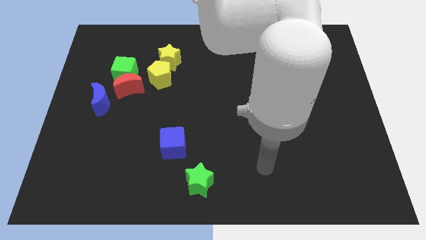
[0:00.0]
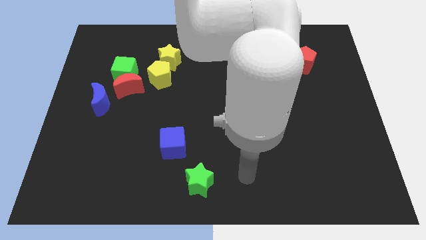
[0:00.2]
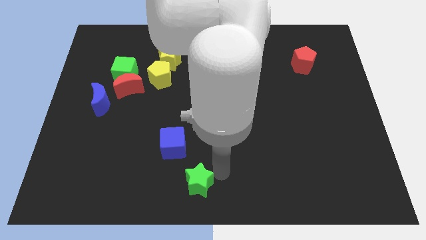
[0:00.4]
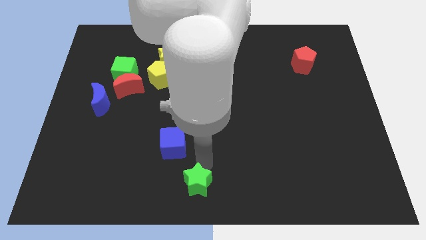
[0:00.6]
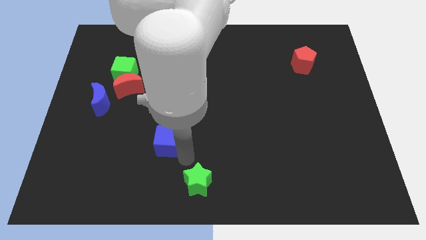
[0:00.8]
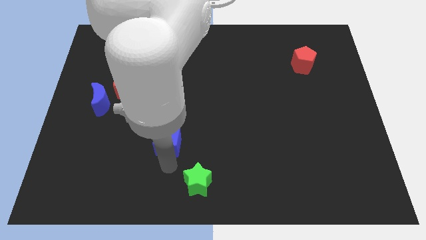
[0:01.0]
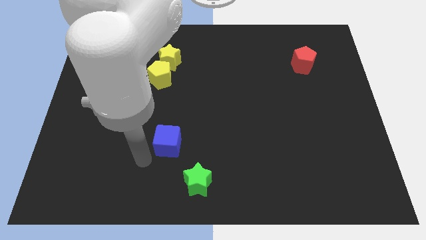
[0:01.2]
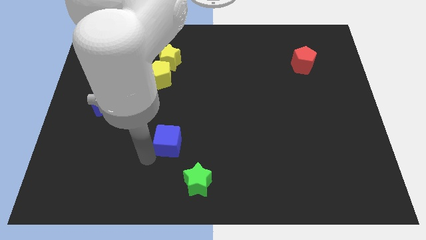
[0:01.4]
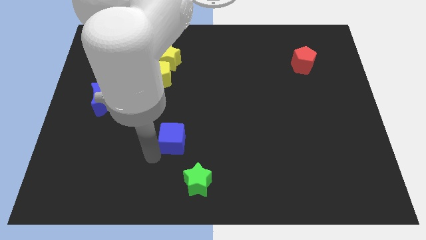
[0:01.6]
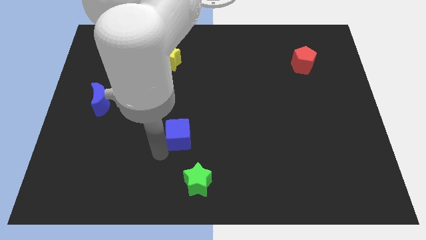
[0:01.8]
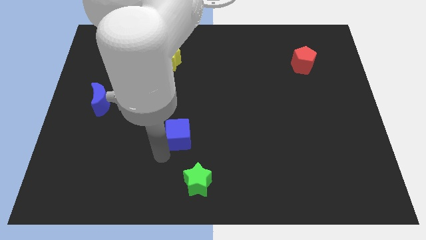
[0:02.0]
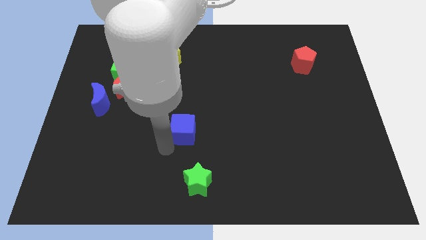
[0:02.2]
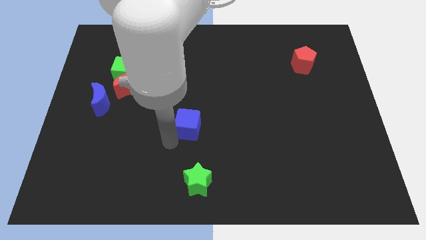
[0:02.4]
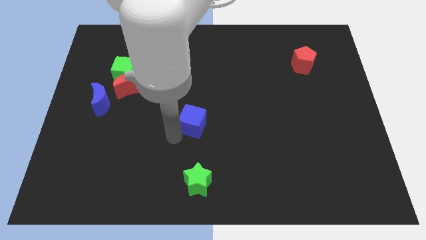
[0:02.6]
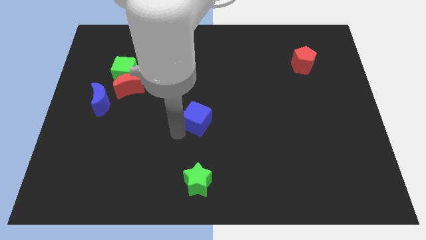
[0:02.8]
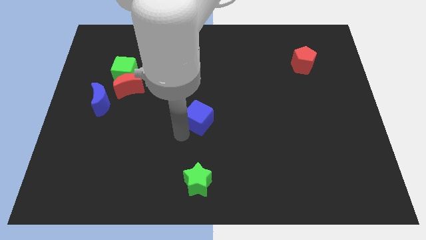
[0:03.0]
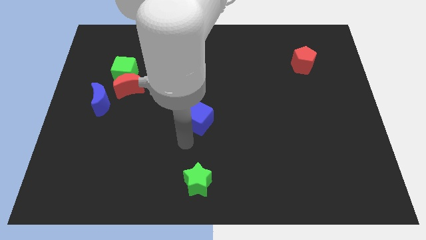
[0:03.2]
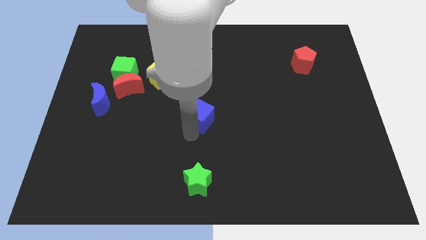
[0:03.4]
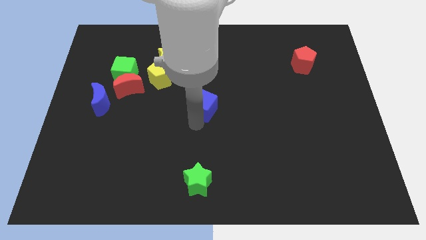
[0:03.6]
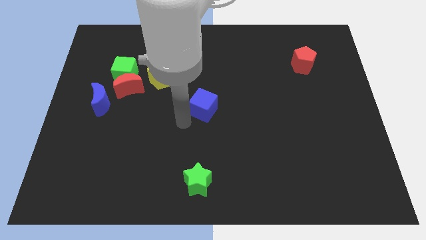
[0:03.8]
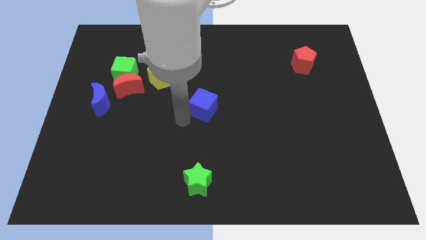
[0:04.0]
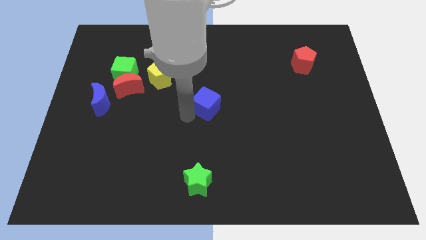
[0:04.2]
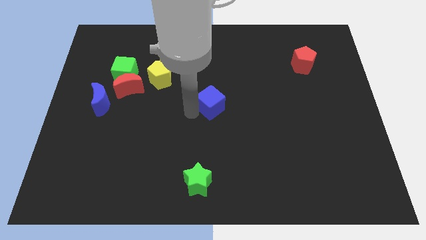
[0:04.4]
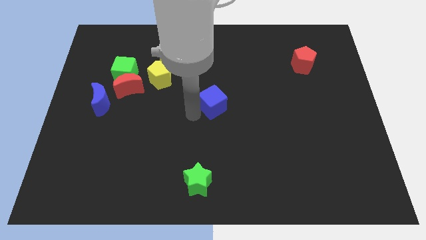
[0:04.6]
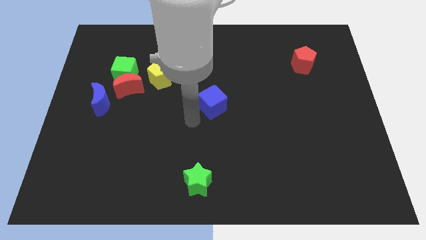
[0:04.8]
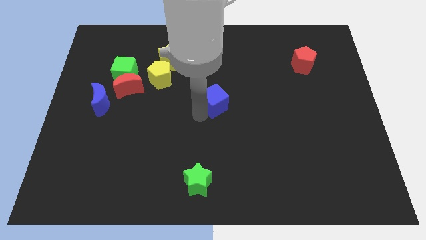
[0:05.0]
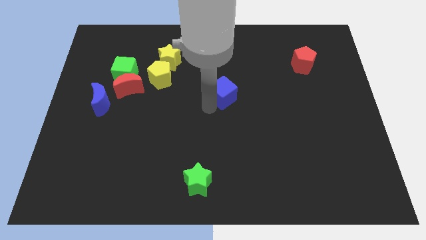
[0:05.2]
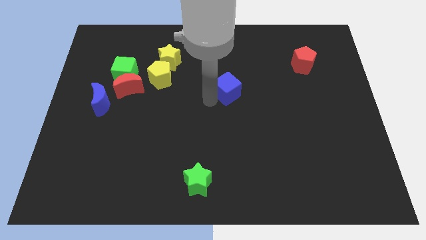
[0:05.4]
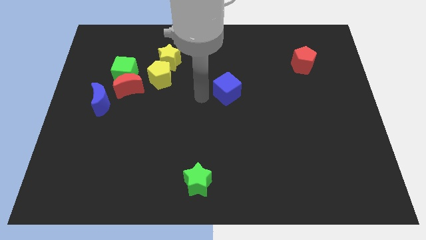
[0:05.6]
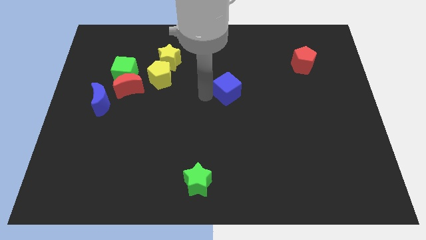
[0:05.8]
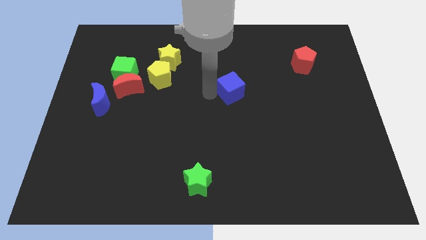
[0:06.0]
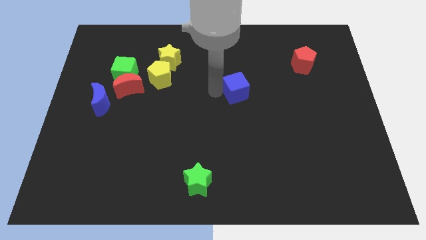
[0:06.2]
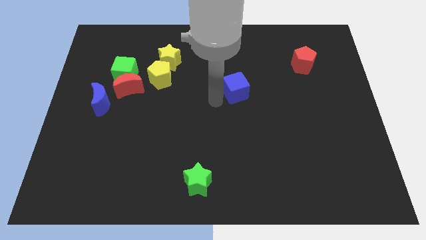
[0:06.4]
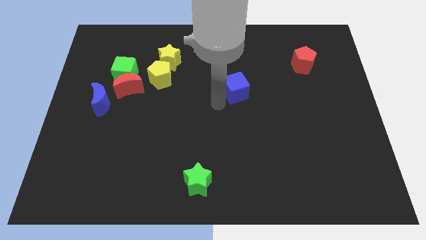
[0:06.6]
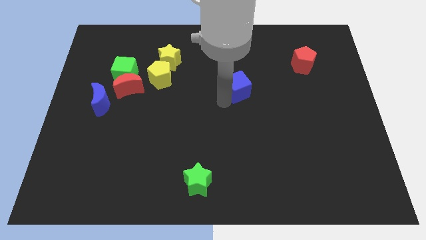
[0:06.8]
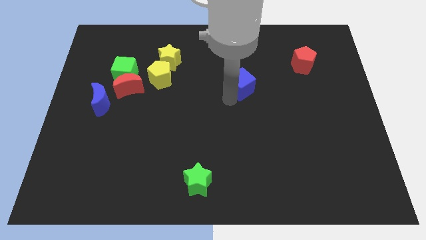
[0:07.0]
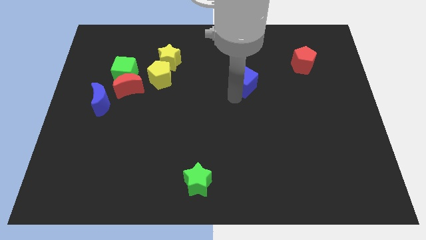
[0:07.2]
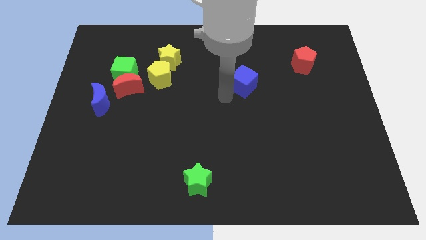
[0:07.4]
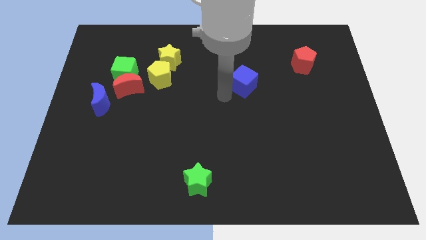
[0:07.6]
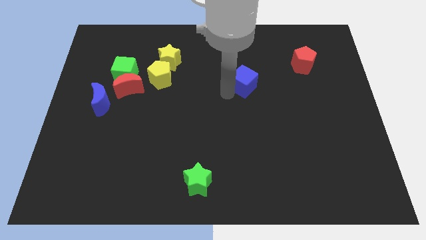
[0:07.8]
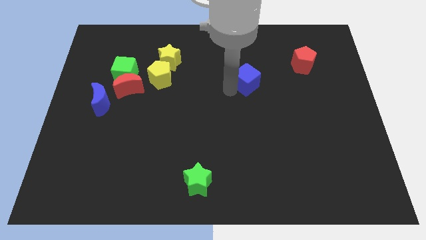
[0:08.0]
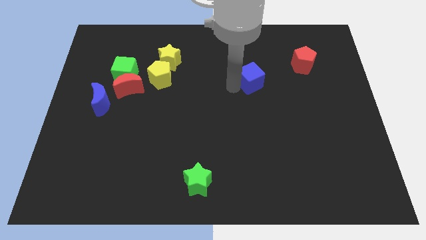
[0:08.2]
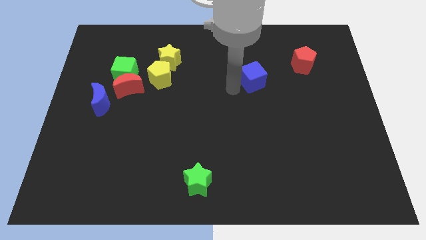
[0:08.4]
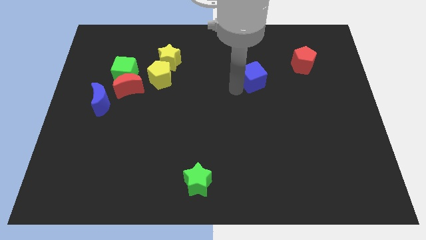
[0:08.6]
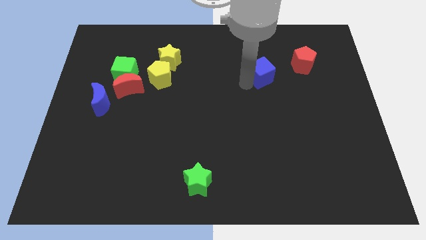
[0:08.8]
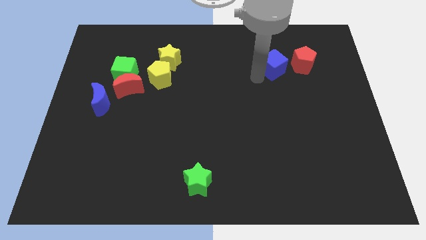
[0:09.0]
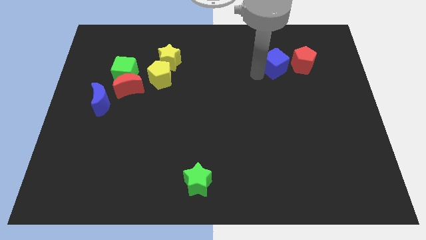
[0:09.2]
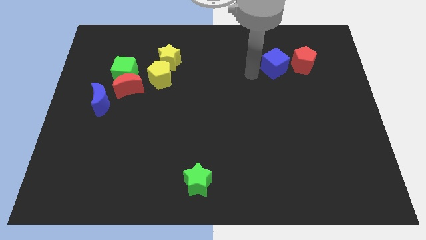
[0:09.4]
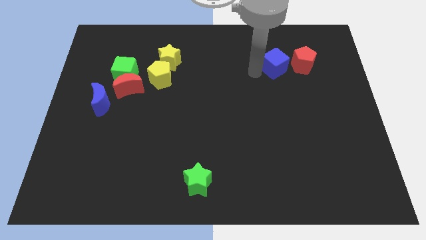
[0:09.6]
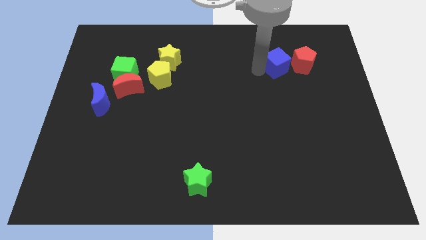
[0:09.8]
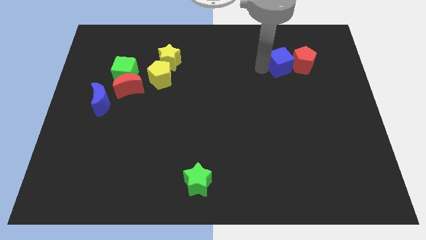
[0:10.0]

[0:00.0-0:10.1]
push the blue cube towards the red pentagon

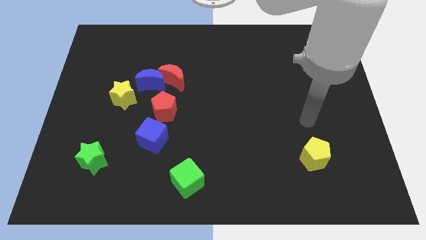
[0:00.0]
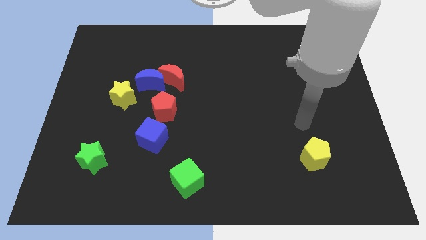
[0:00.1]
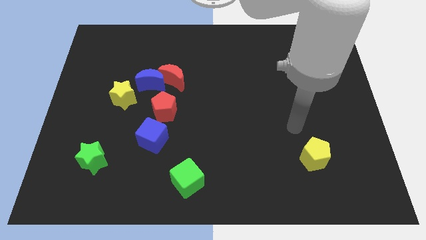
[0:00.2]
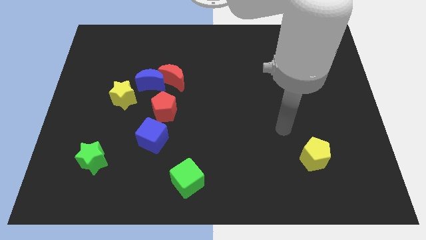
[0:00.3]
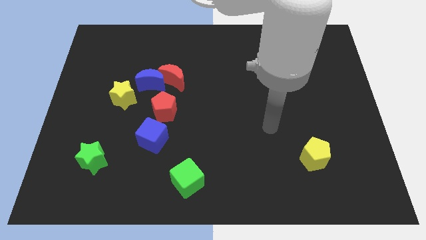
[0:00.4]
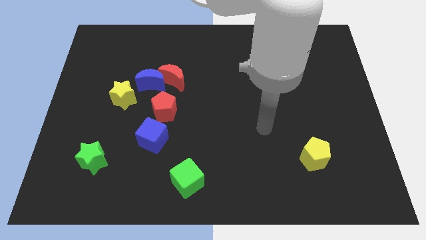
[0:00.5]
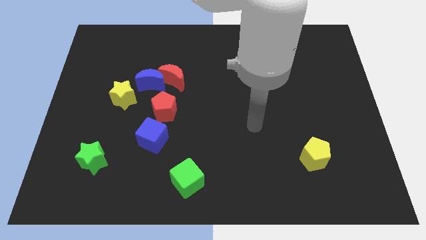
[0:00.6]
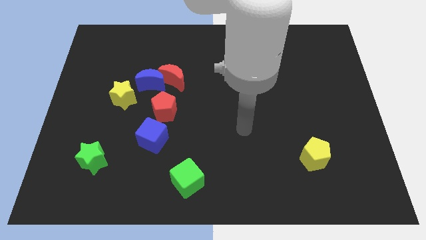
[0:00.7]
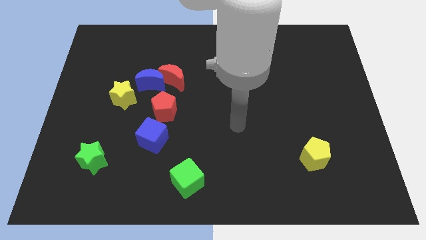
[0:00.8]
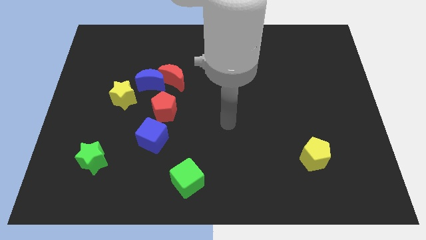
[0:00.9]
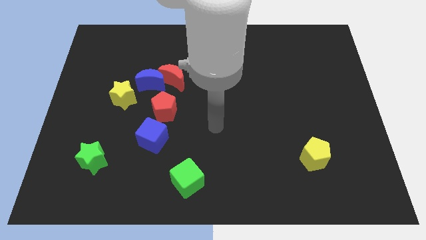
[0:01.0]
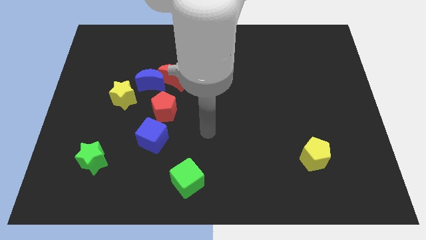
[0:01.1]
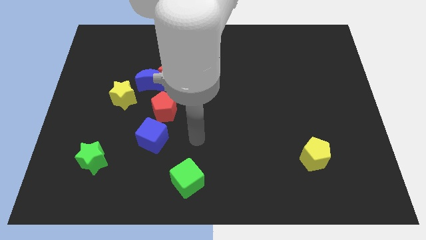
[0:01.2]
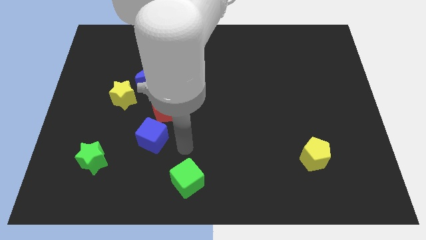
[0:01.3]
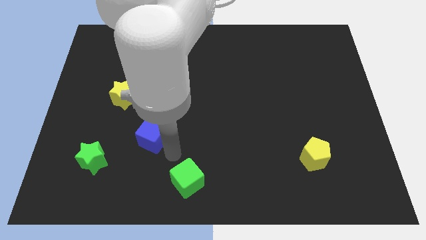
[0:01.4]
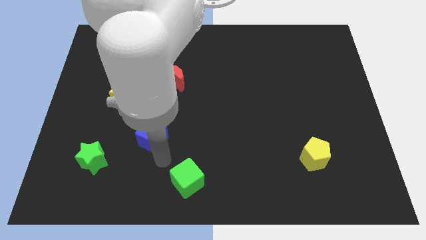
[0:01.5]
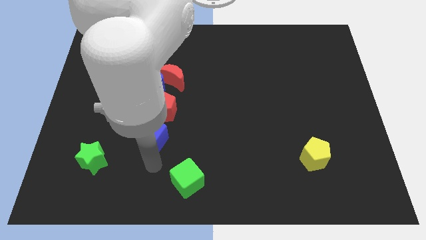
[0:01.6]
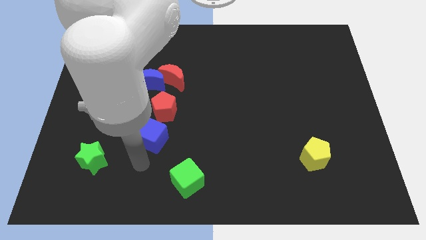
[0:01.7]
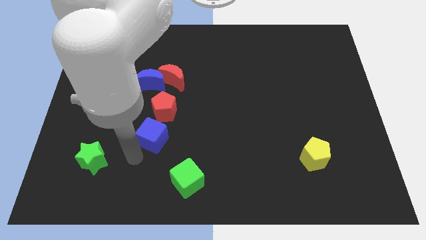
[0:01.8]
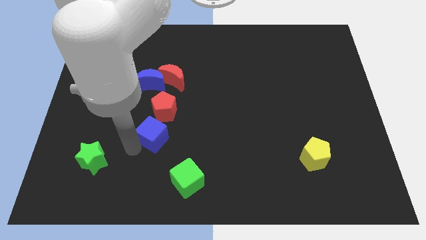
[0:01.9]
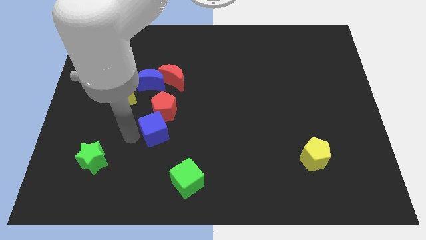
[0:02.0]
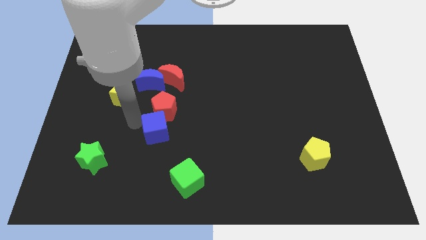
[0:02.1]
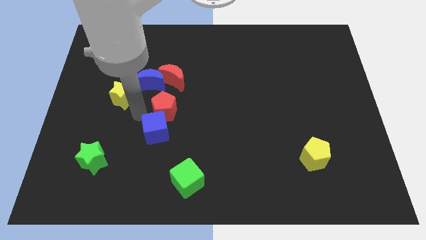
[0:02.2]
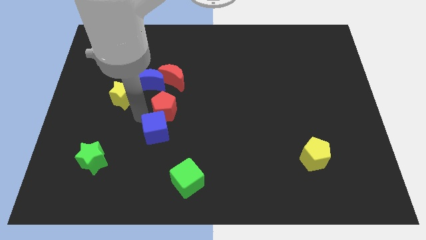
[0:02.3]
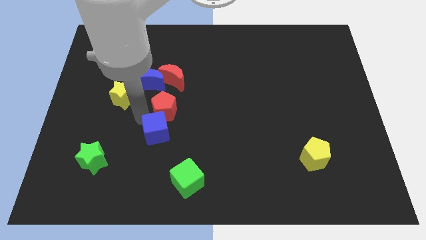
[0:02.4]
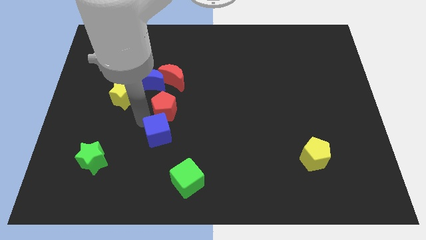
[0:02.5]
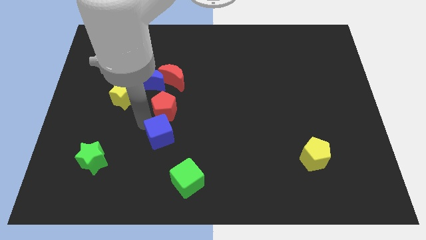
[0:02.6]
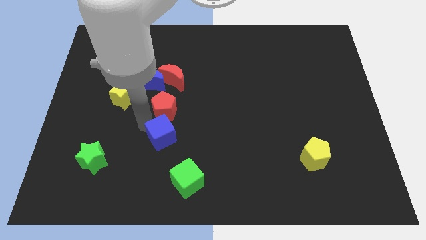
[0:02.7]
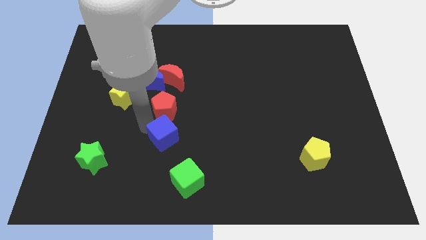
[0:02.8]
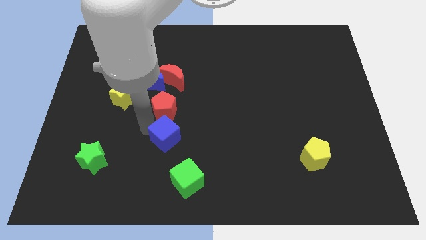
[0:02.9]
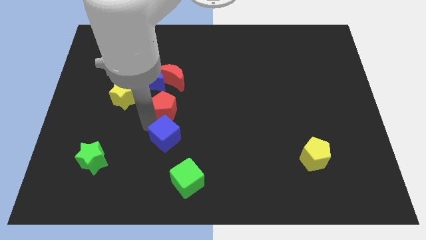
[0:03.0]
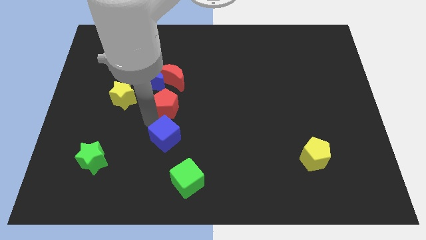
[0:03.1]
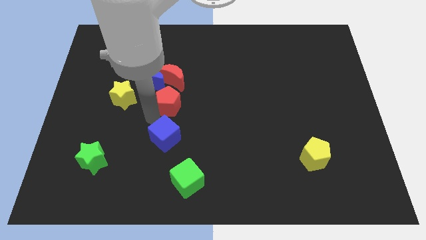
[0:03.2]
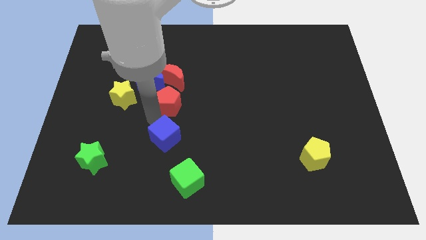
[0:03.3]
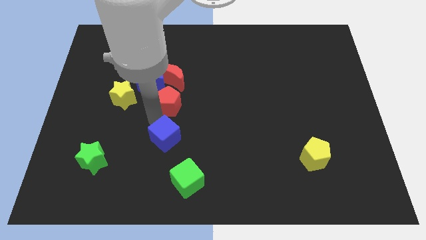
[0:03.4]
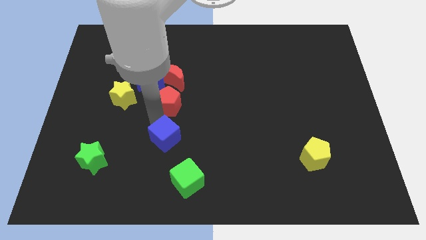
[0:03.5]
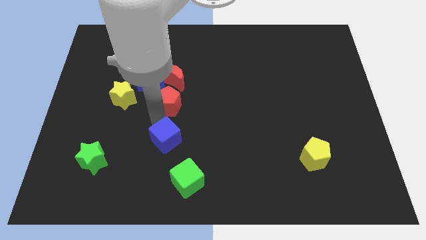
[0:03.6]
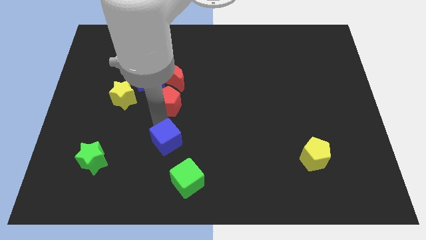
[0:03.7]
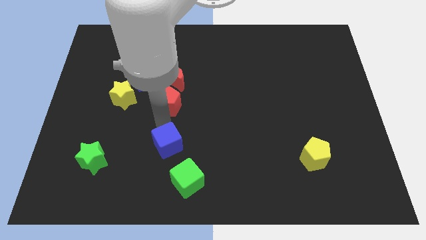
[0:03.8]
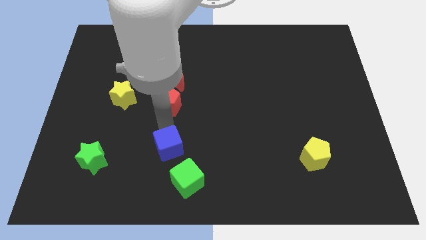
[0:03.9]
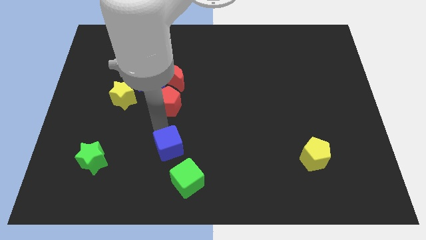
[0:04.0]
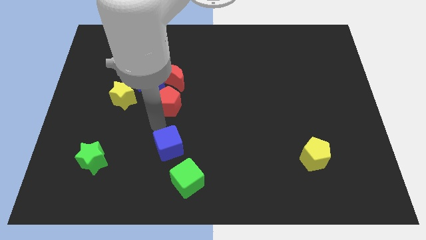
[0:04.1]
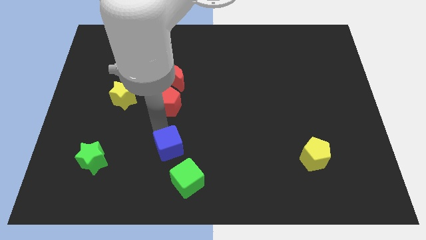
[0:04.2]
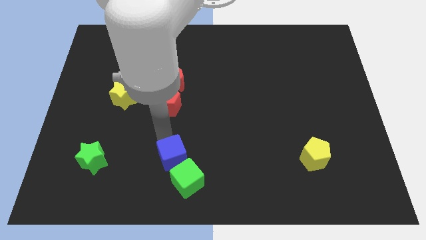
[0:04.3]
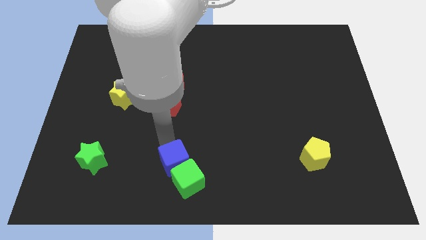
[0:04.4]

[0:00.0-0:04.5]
slide the blue cube towards the green cube
